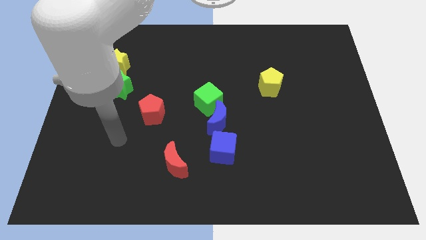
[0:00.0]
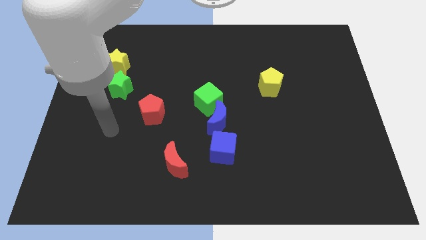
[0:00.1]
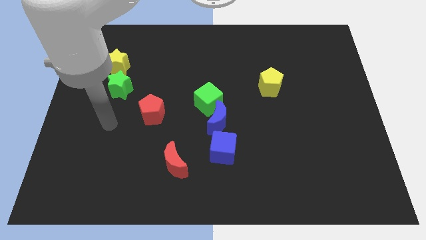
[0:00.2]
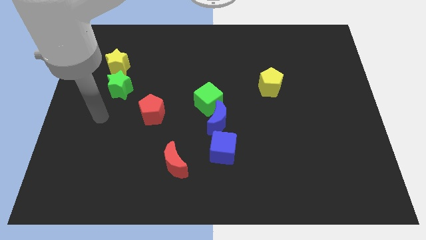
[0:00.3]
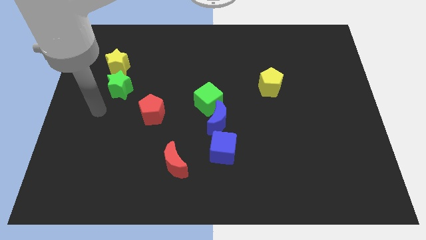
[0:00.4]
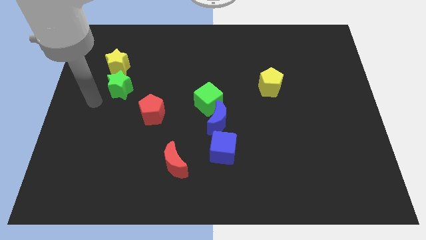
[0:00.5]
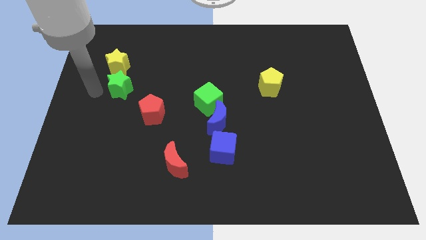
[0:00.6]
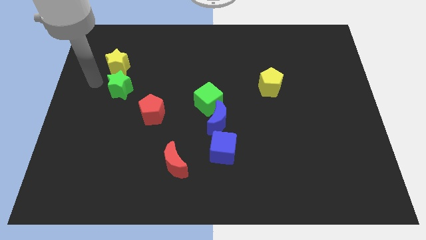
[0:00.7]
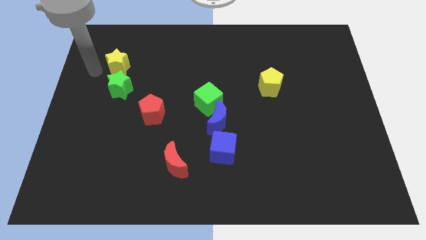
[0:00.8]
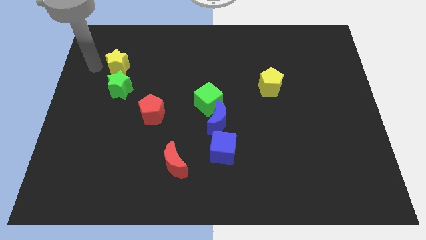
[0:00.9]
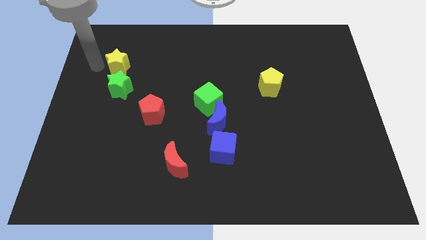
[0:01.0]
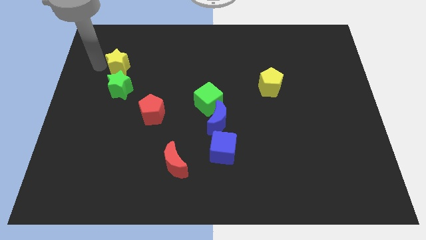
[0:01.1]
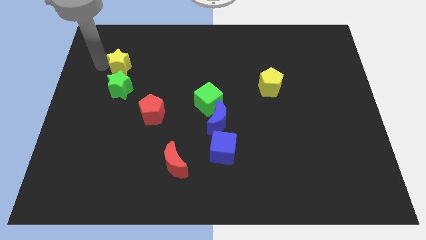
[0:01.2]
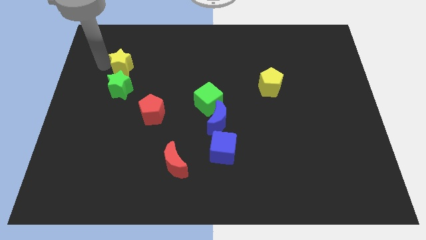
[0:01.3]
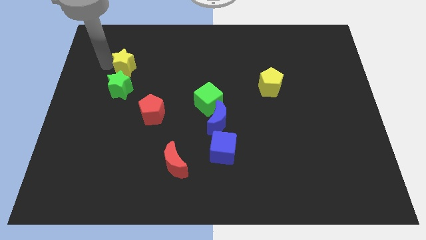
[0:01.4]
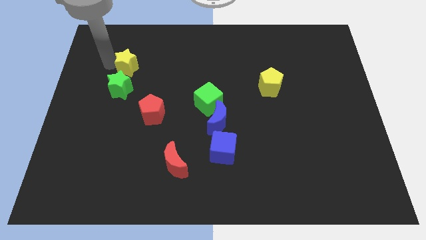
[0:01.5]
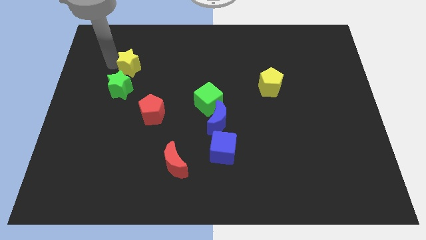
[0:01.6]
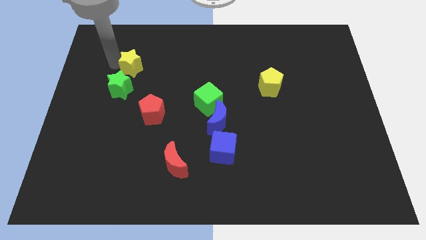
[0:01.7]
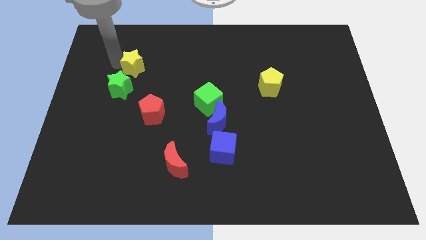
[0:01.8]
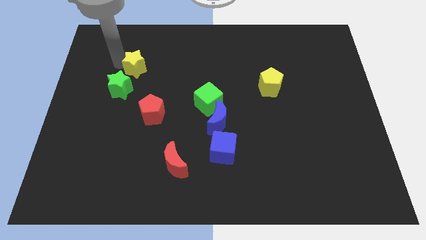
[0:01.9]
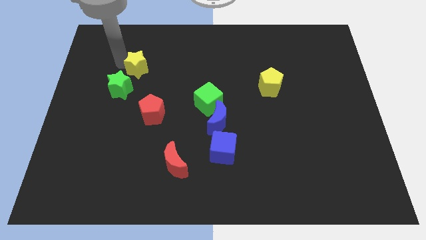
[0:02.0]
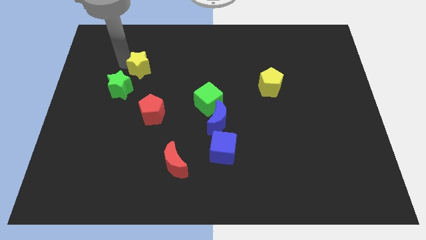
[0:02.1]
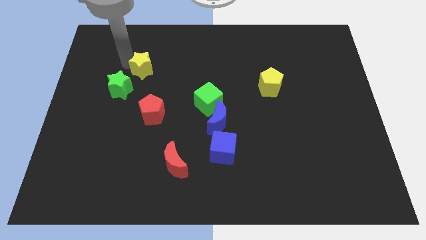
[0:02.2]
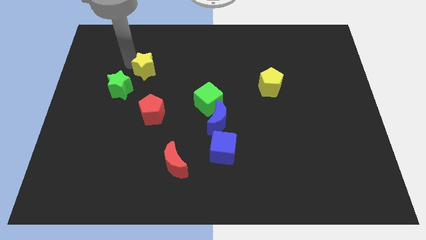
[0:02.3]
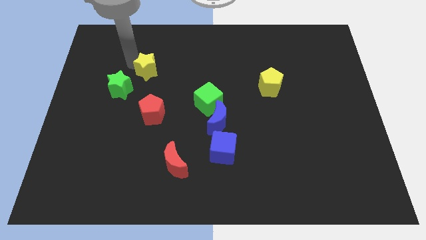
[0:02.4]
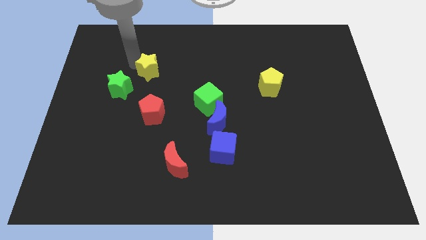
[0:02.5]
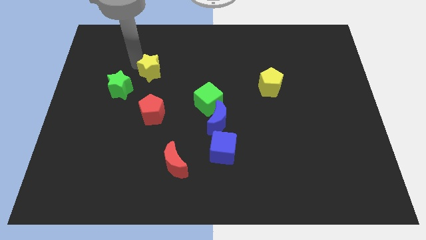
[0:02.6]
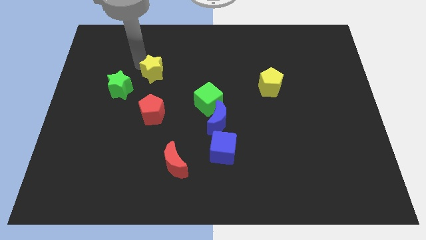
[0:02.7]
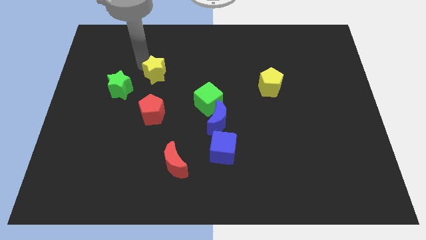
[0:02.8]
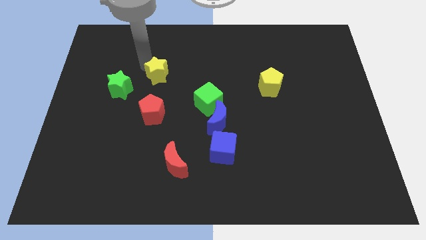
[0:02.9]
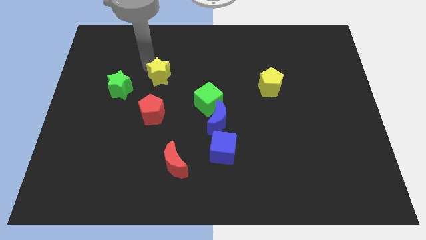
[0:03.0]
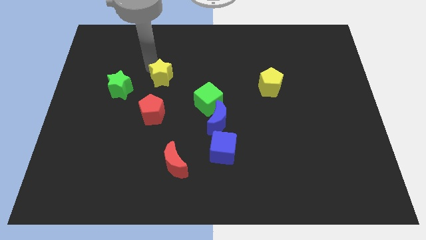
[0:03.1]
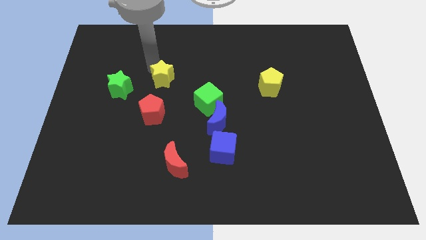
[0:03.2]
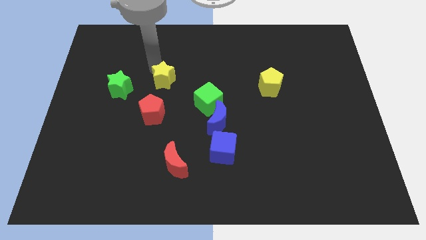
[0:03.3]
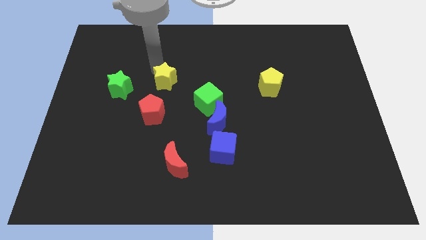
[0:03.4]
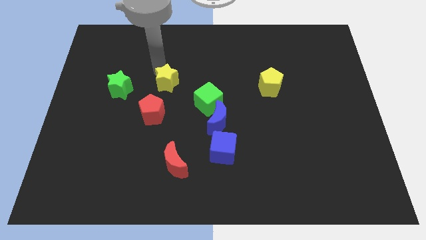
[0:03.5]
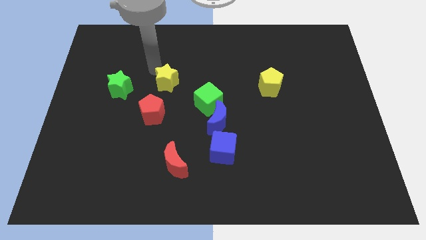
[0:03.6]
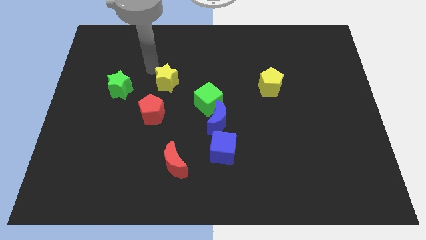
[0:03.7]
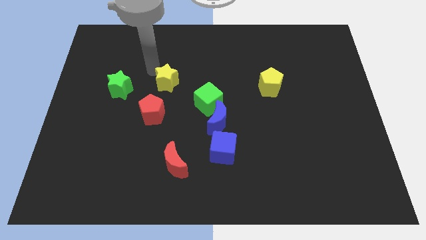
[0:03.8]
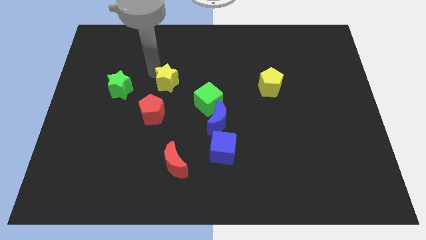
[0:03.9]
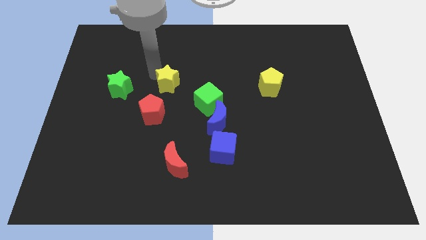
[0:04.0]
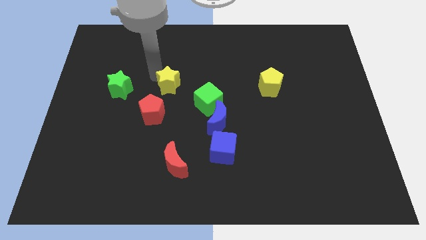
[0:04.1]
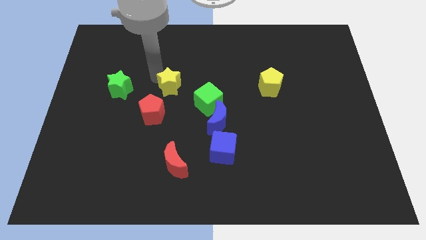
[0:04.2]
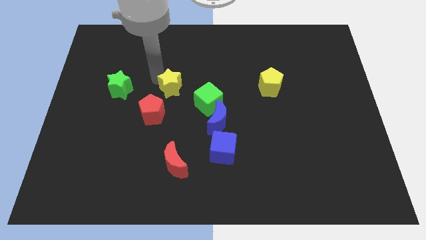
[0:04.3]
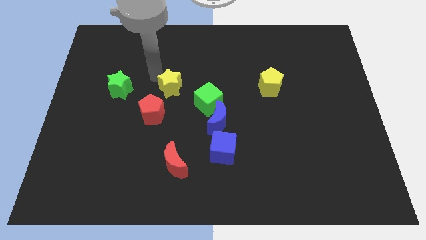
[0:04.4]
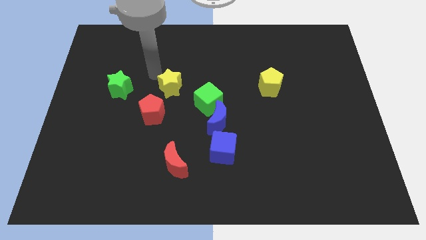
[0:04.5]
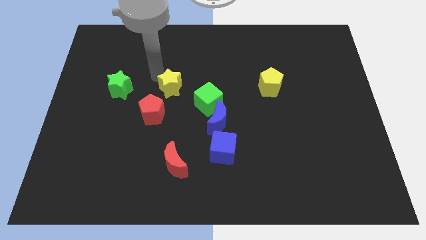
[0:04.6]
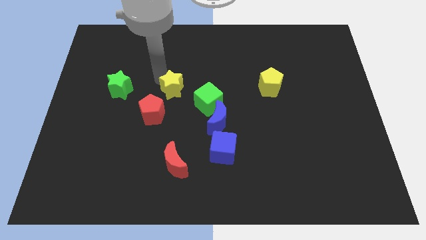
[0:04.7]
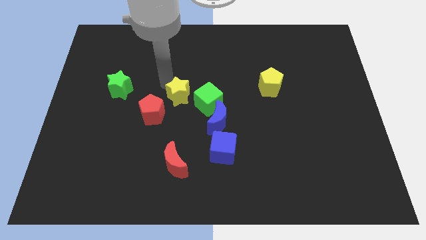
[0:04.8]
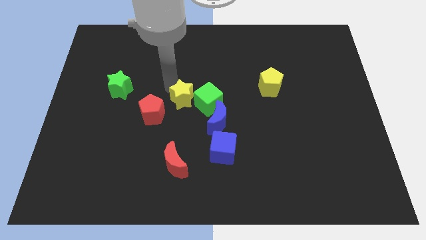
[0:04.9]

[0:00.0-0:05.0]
push the yellow star just right of the red pentagon

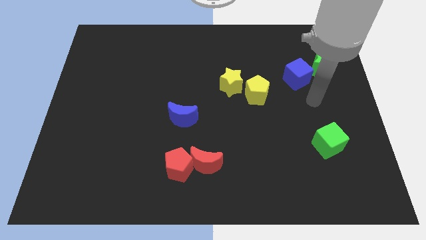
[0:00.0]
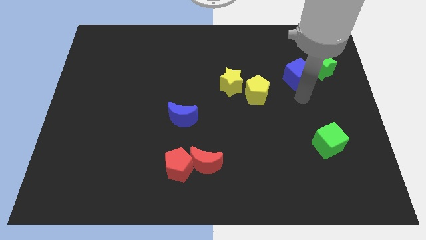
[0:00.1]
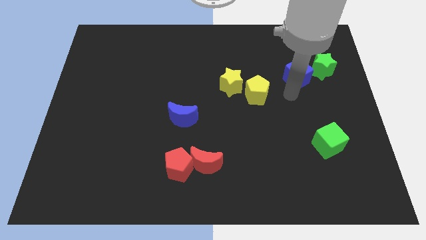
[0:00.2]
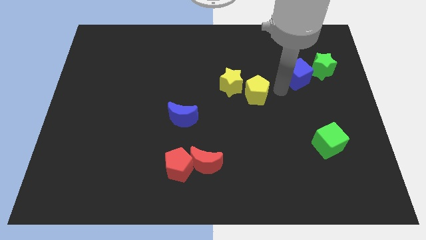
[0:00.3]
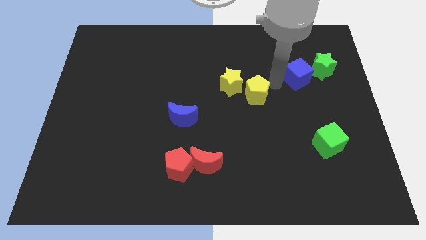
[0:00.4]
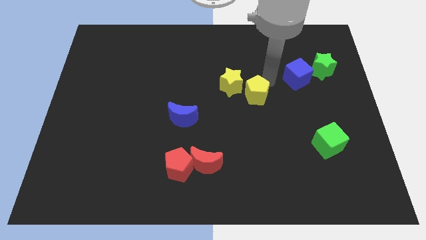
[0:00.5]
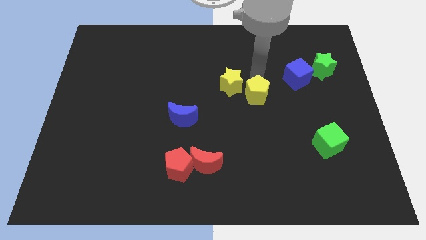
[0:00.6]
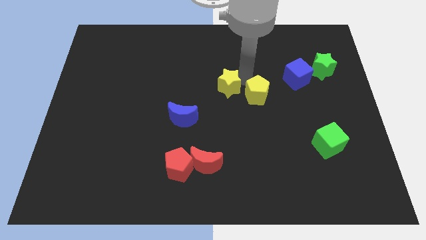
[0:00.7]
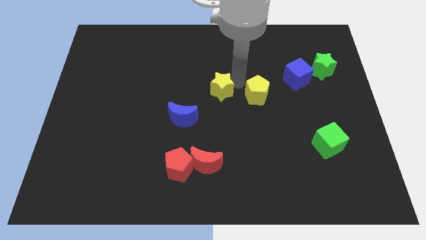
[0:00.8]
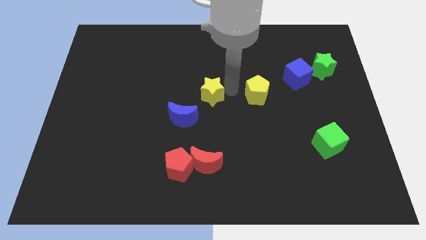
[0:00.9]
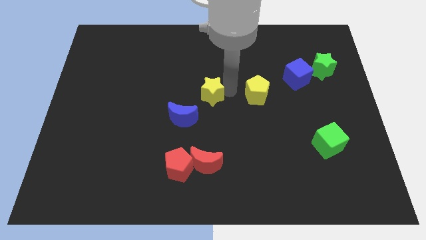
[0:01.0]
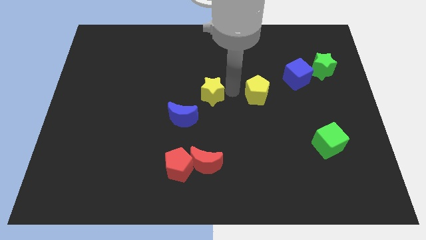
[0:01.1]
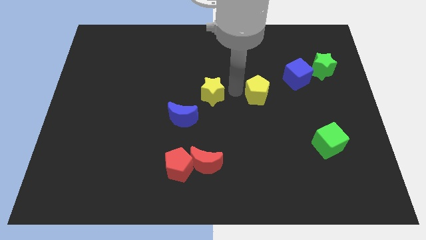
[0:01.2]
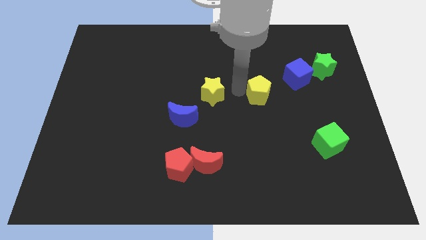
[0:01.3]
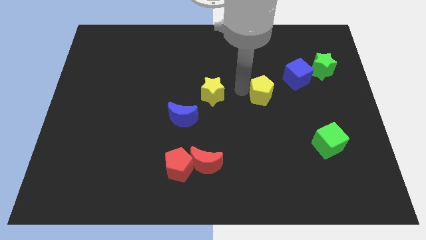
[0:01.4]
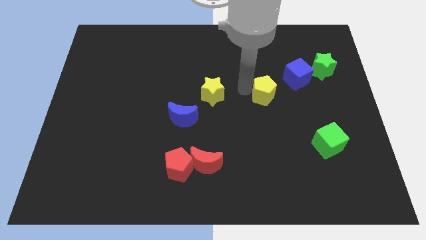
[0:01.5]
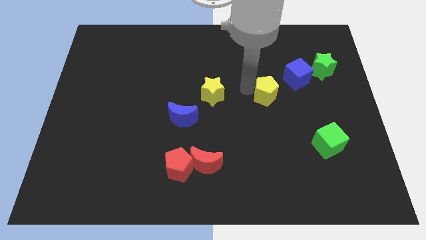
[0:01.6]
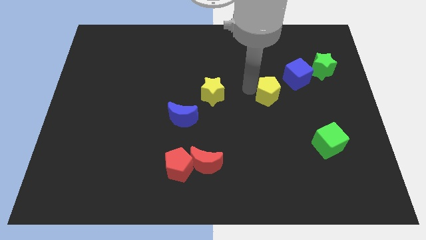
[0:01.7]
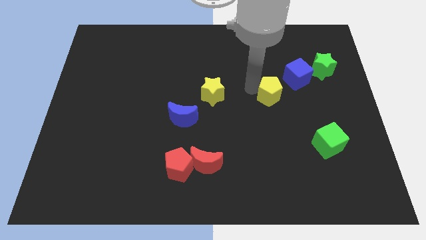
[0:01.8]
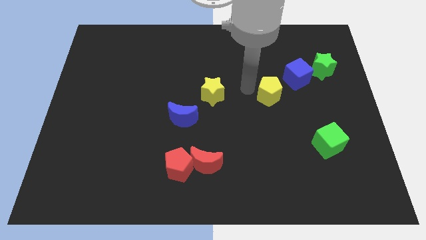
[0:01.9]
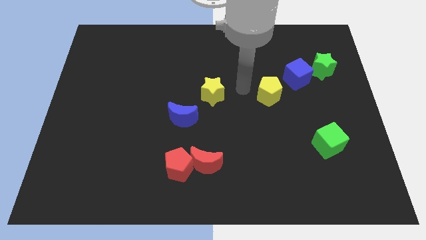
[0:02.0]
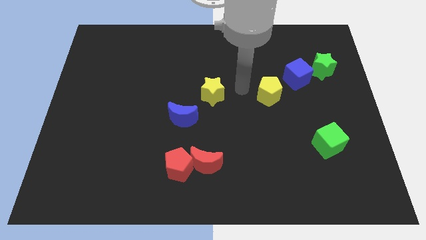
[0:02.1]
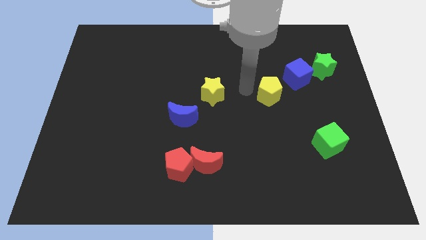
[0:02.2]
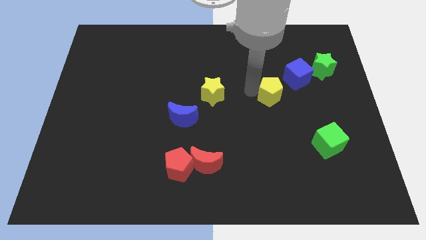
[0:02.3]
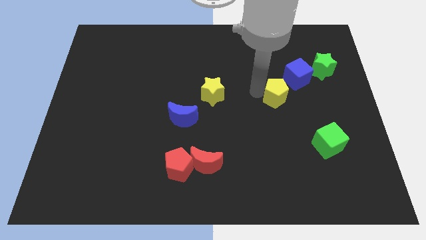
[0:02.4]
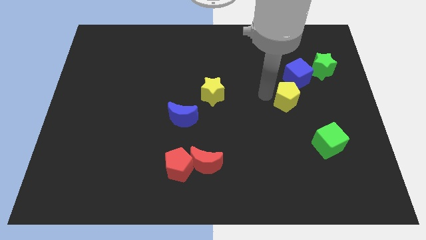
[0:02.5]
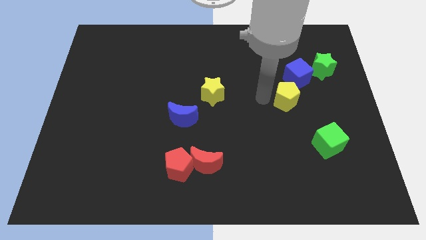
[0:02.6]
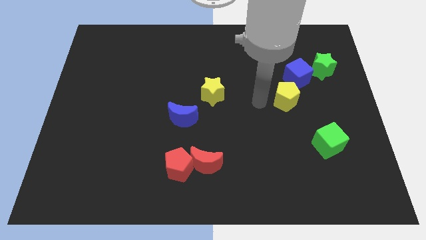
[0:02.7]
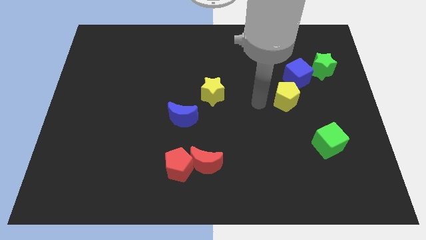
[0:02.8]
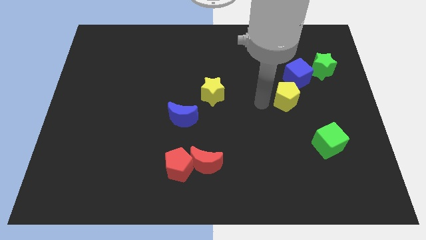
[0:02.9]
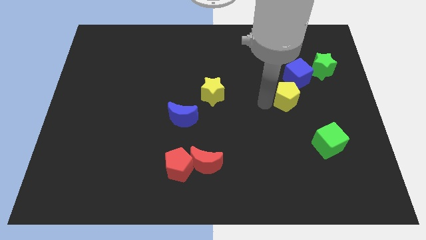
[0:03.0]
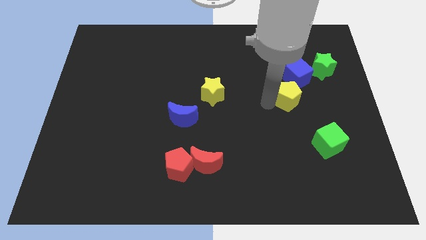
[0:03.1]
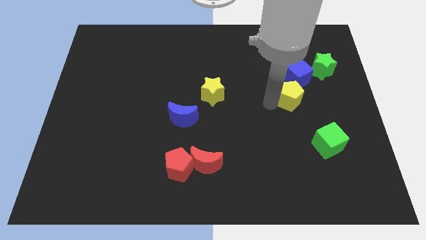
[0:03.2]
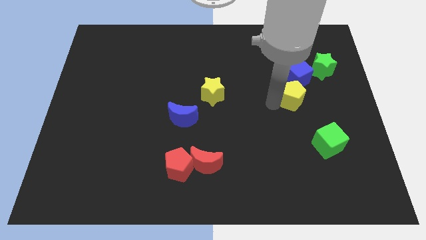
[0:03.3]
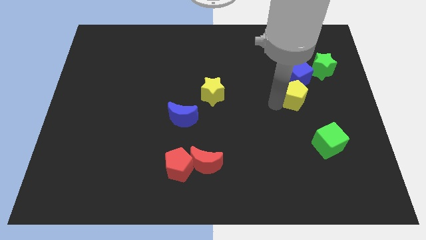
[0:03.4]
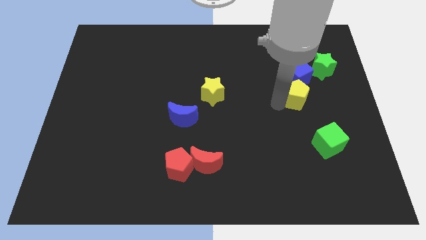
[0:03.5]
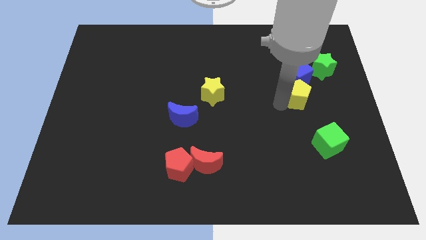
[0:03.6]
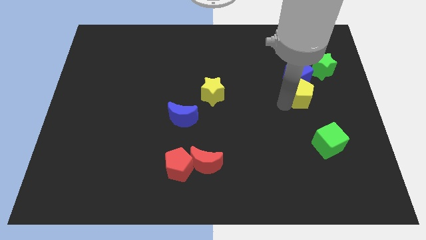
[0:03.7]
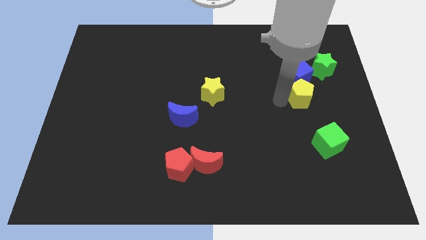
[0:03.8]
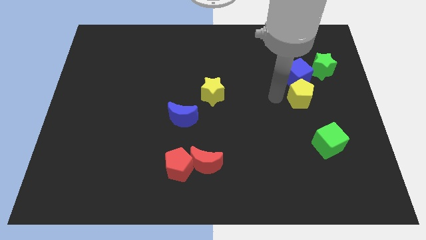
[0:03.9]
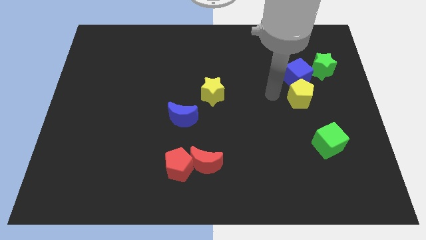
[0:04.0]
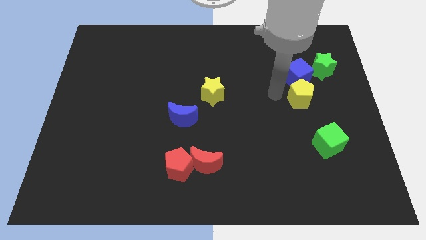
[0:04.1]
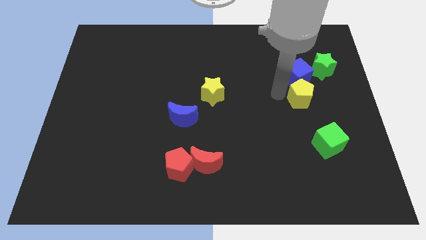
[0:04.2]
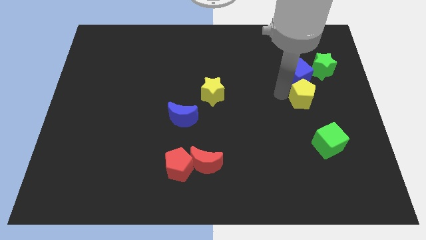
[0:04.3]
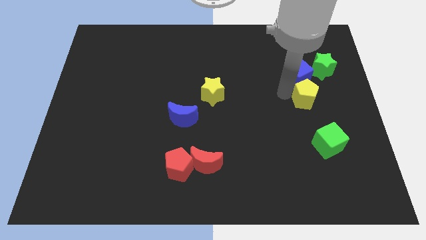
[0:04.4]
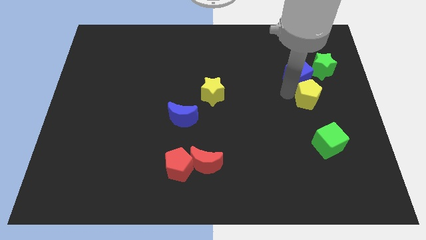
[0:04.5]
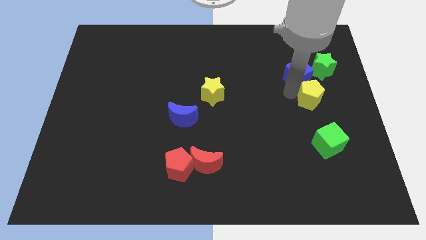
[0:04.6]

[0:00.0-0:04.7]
slide the yellow pentagon below the green star
